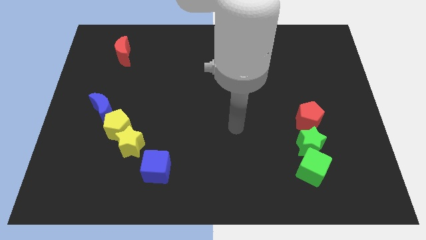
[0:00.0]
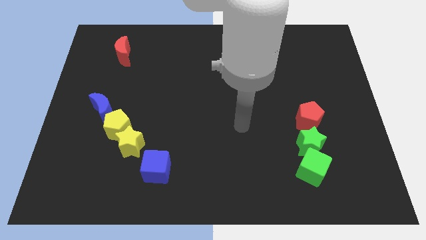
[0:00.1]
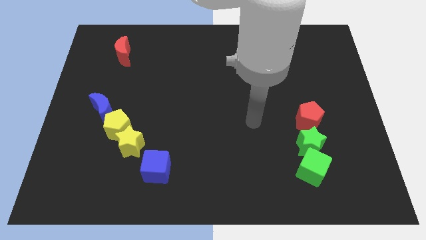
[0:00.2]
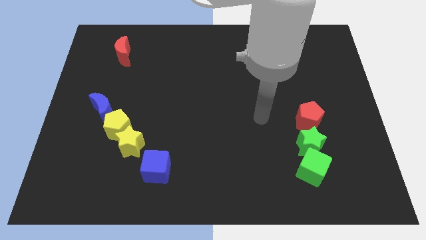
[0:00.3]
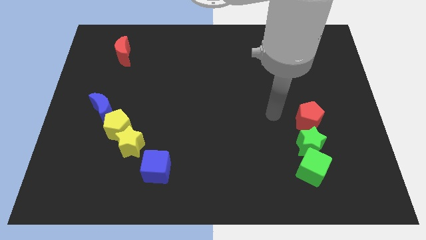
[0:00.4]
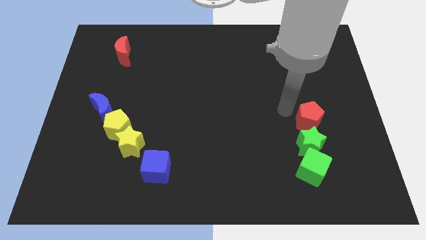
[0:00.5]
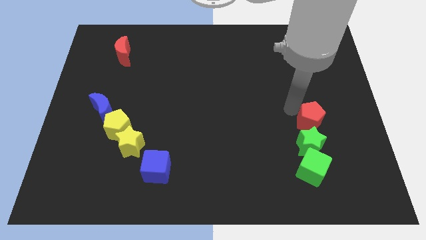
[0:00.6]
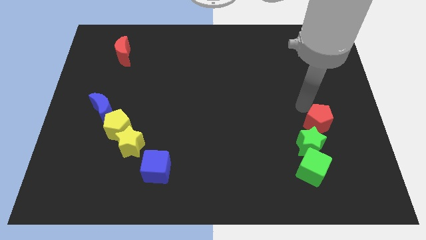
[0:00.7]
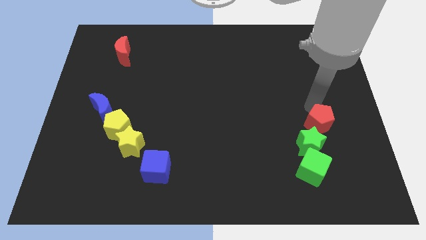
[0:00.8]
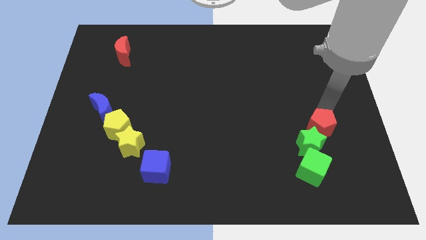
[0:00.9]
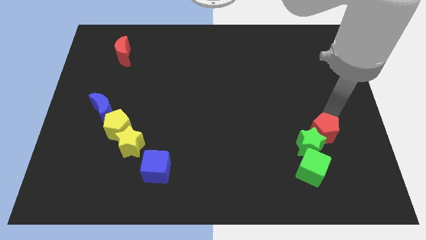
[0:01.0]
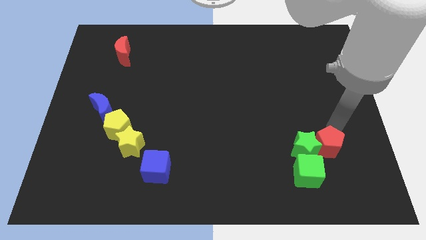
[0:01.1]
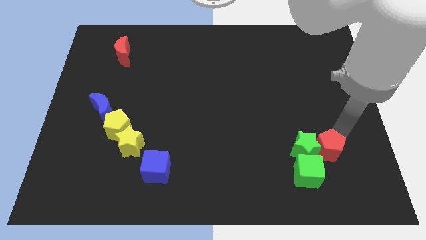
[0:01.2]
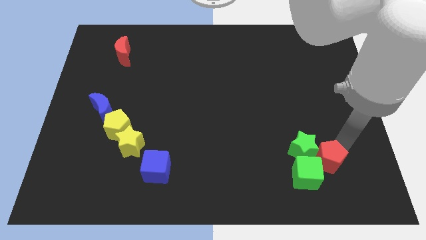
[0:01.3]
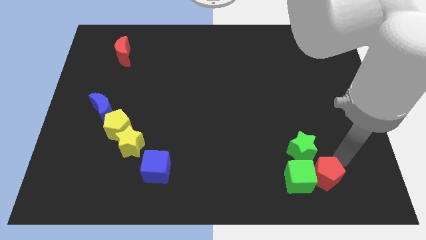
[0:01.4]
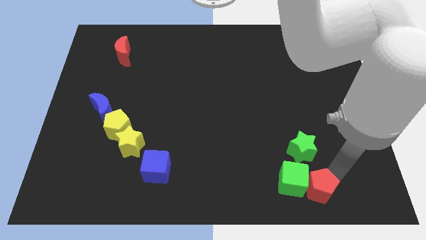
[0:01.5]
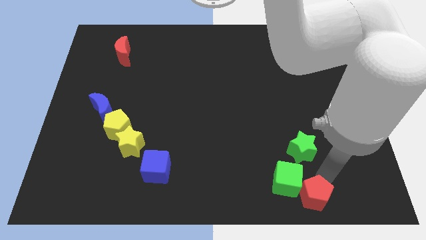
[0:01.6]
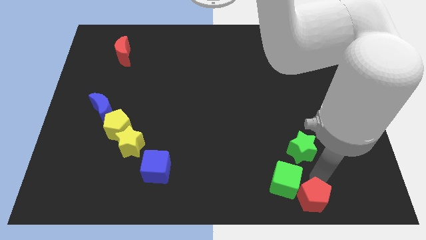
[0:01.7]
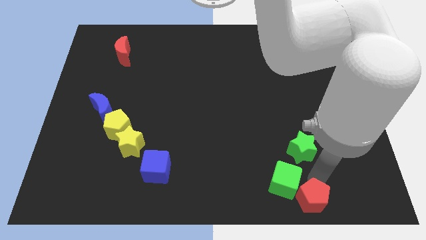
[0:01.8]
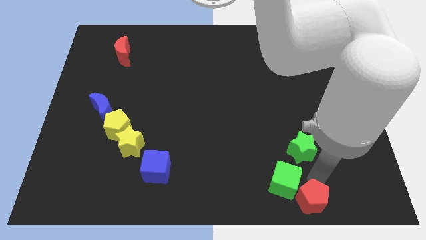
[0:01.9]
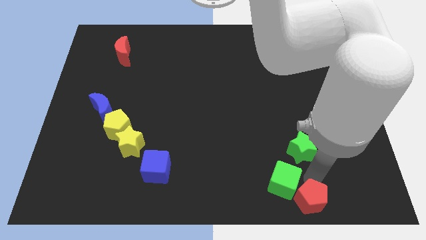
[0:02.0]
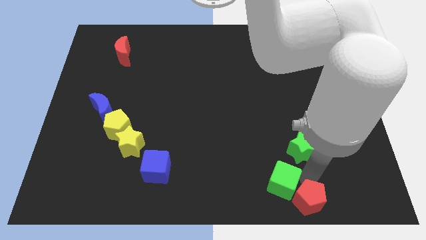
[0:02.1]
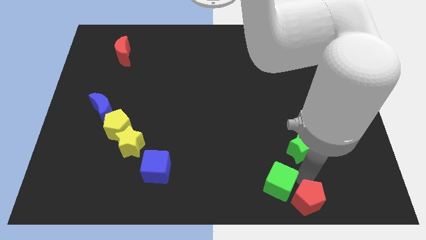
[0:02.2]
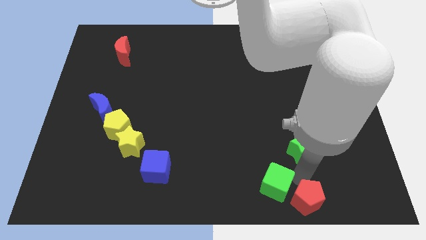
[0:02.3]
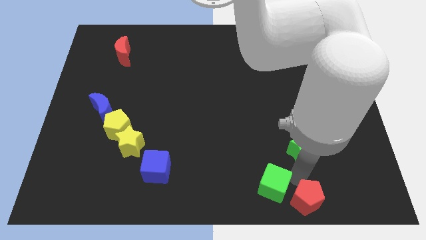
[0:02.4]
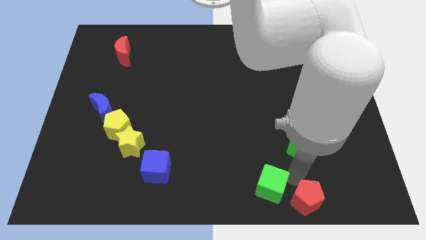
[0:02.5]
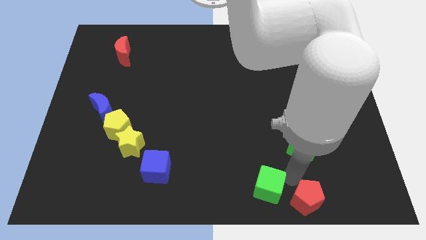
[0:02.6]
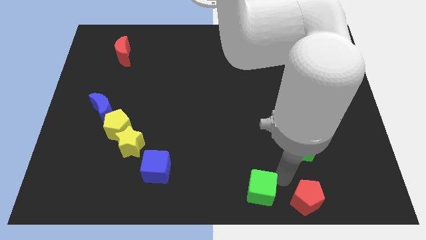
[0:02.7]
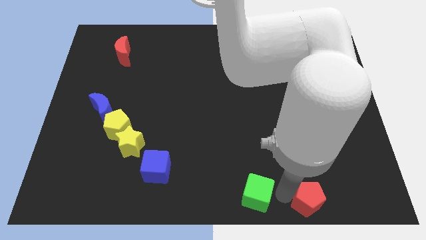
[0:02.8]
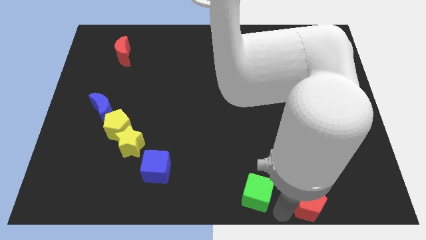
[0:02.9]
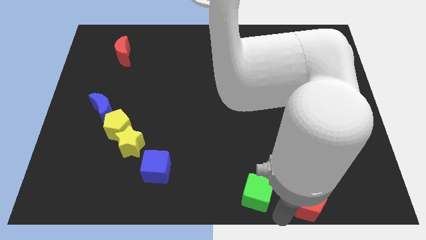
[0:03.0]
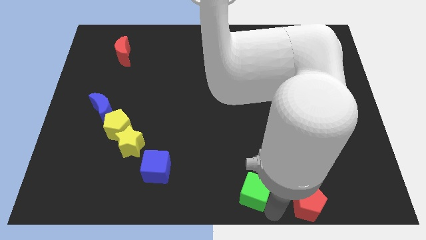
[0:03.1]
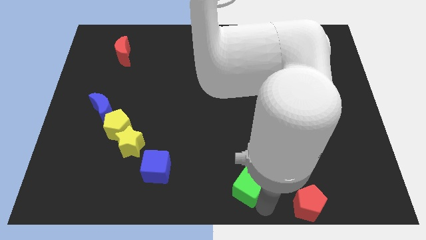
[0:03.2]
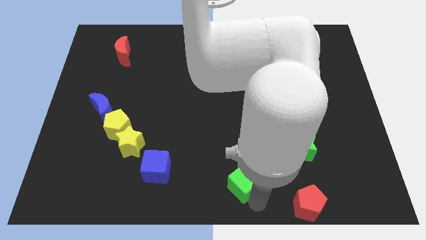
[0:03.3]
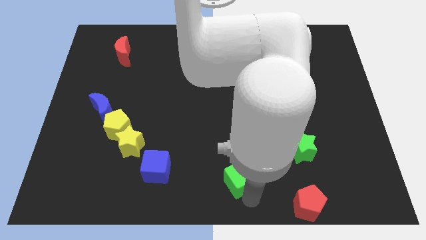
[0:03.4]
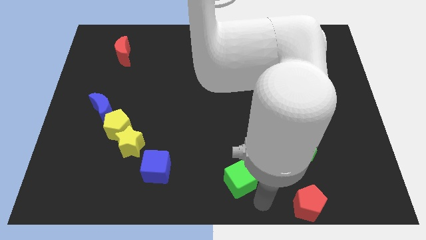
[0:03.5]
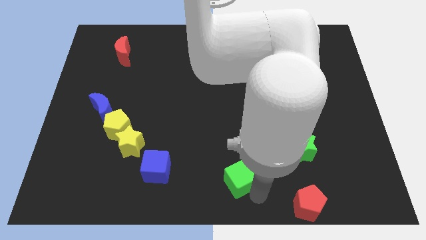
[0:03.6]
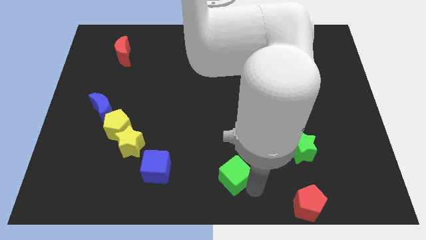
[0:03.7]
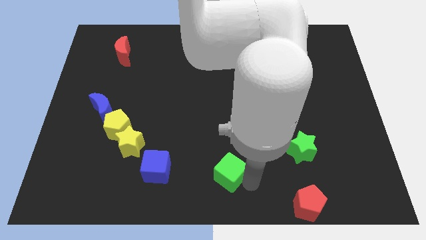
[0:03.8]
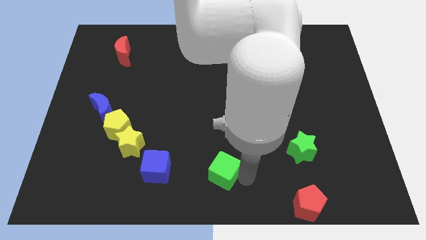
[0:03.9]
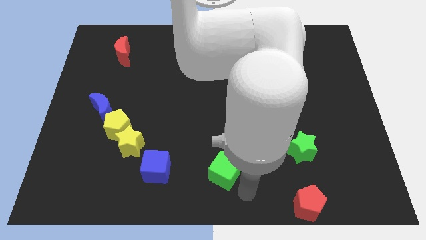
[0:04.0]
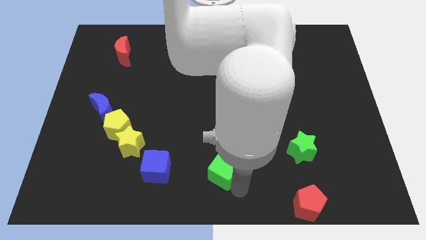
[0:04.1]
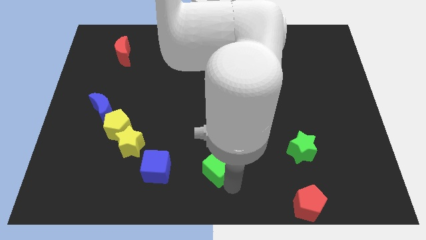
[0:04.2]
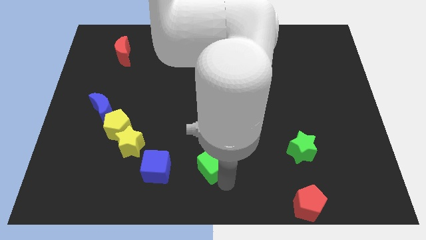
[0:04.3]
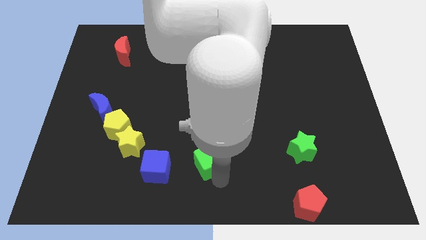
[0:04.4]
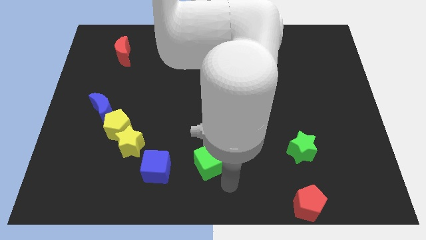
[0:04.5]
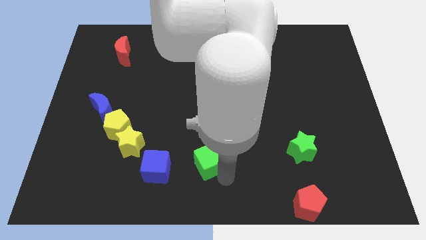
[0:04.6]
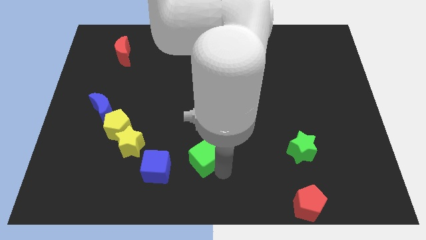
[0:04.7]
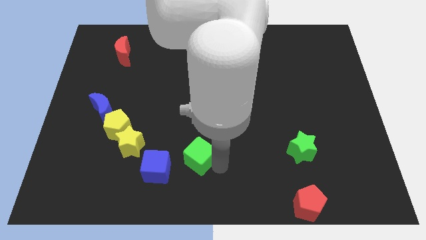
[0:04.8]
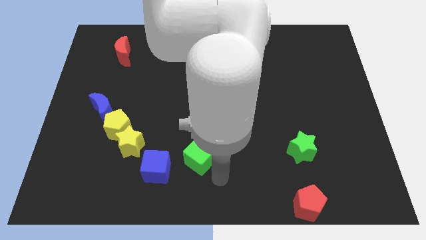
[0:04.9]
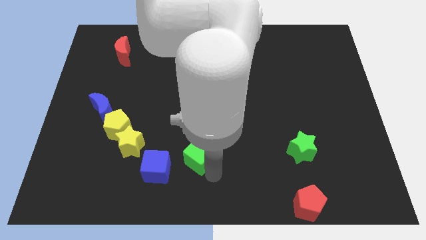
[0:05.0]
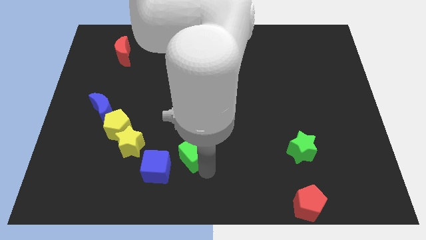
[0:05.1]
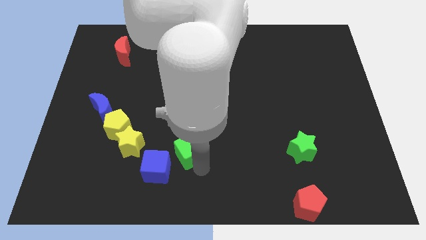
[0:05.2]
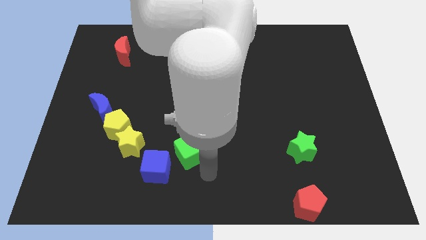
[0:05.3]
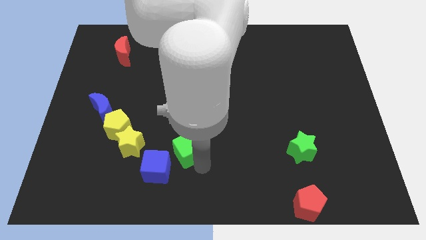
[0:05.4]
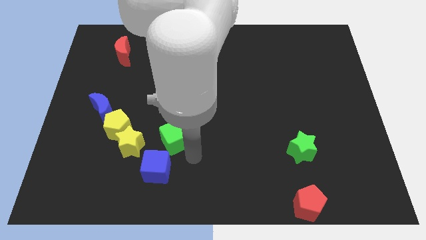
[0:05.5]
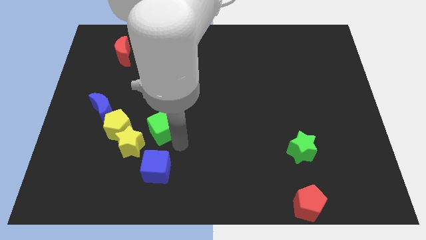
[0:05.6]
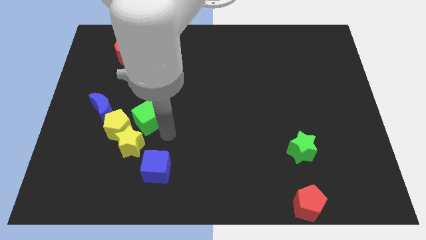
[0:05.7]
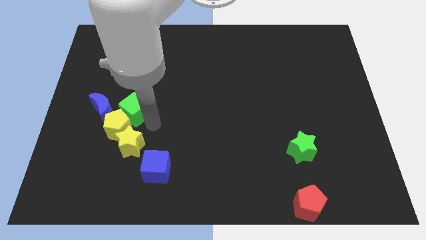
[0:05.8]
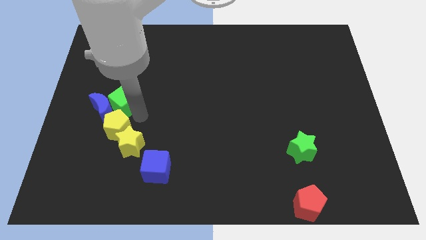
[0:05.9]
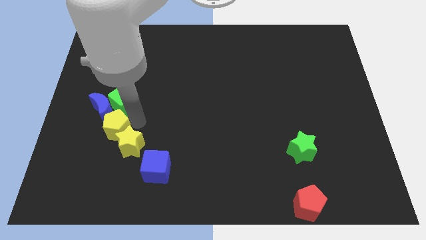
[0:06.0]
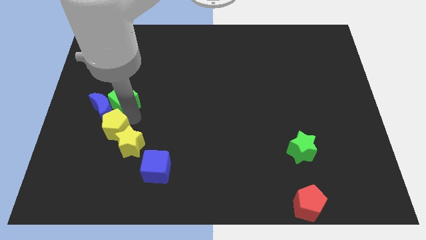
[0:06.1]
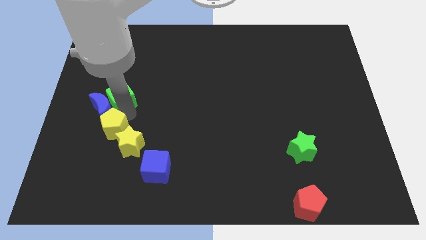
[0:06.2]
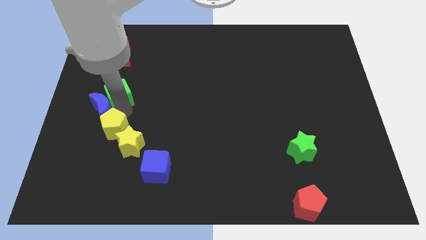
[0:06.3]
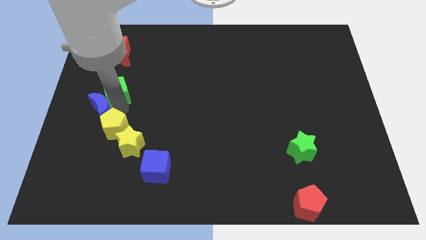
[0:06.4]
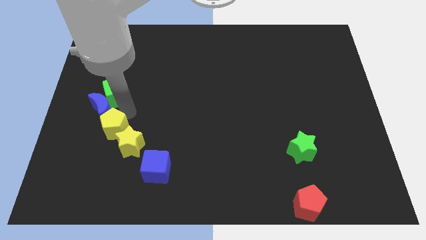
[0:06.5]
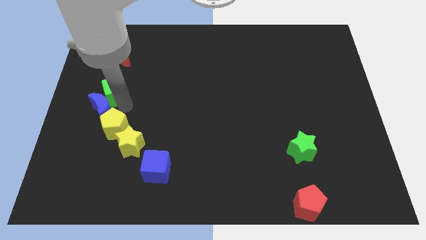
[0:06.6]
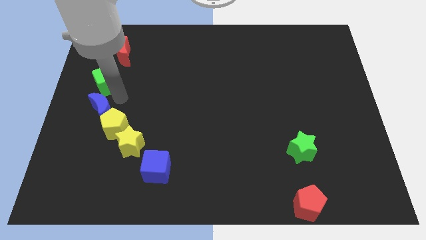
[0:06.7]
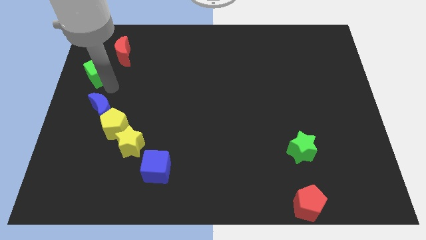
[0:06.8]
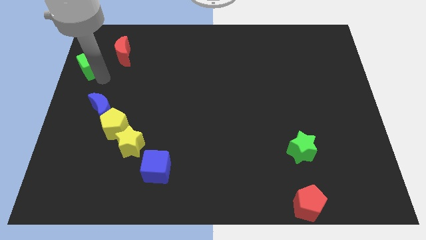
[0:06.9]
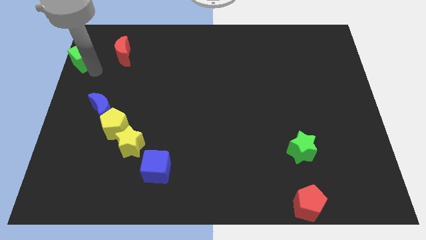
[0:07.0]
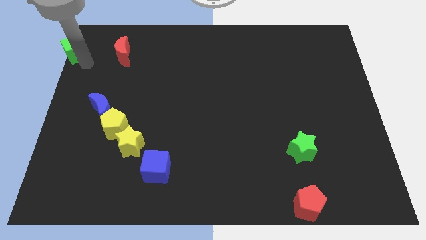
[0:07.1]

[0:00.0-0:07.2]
slide the green cube to the top left of the board
